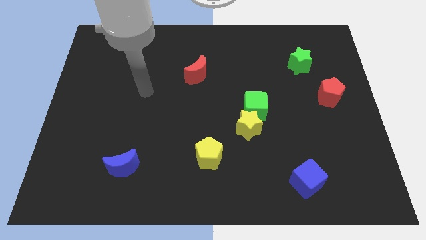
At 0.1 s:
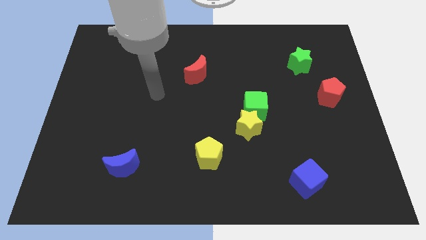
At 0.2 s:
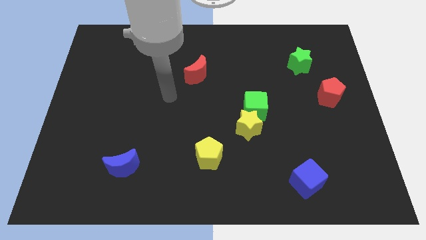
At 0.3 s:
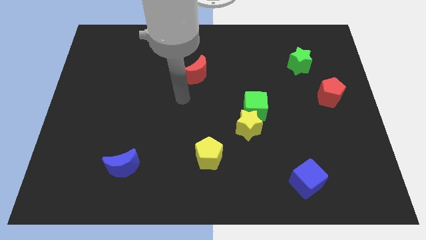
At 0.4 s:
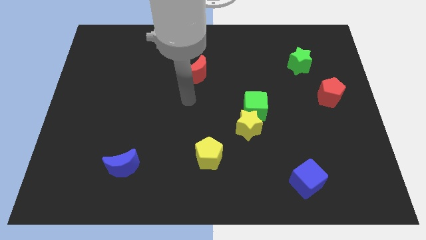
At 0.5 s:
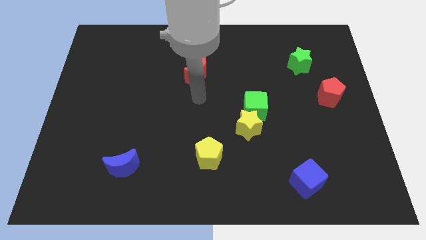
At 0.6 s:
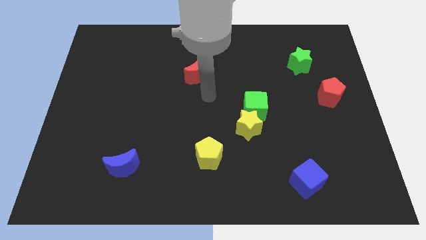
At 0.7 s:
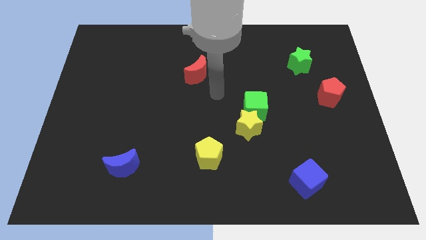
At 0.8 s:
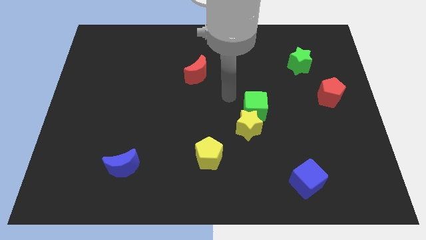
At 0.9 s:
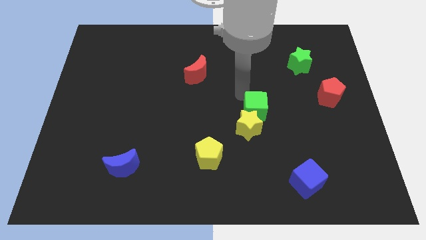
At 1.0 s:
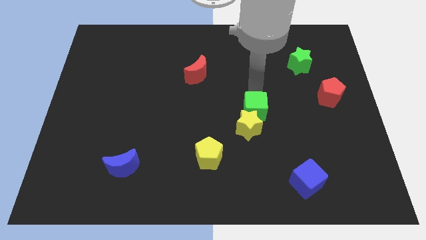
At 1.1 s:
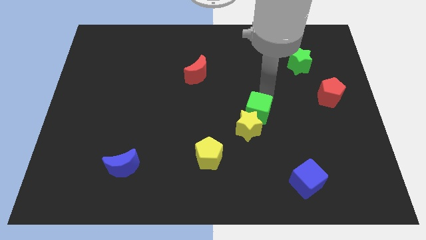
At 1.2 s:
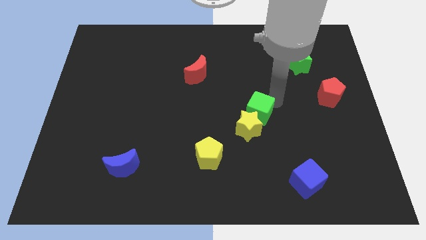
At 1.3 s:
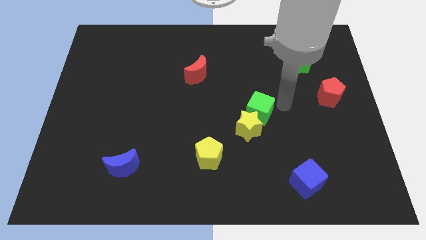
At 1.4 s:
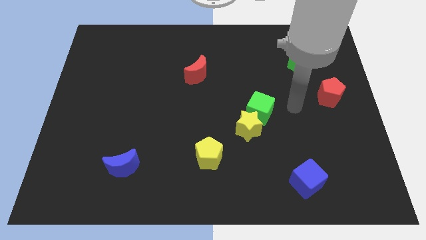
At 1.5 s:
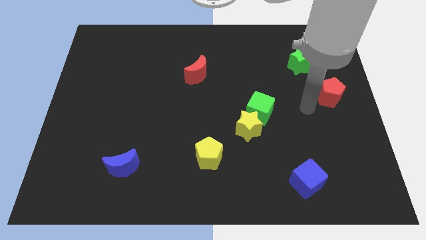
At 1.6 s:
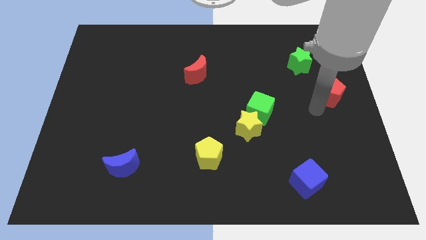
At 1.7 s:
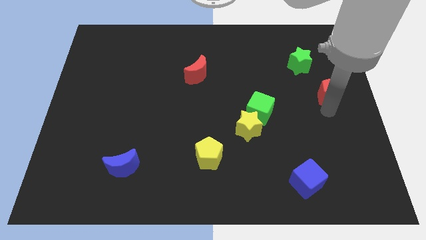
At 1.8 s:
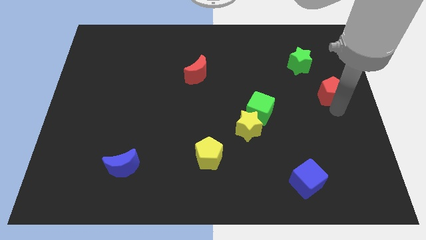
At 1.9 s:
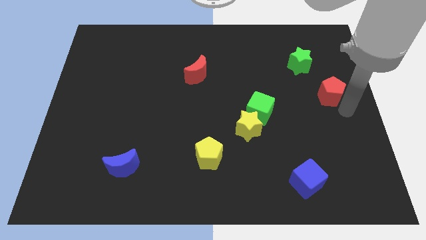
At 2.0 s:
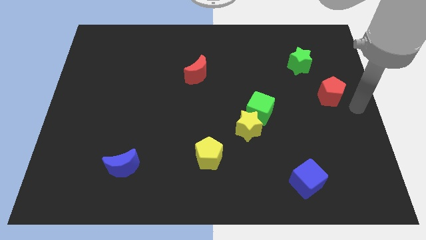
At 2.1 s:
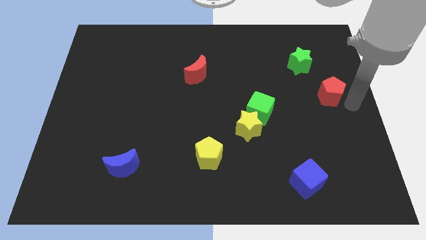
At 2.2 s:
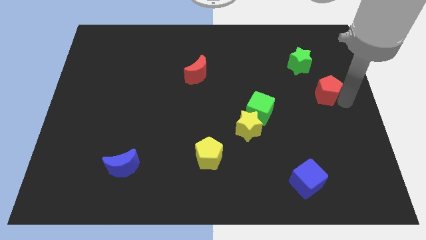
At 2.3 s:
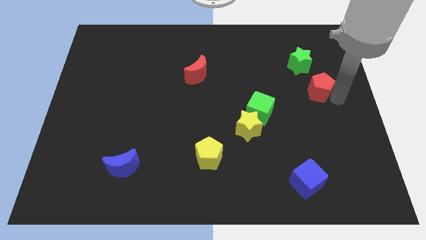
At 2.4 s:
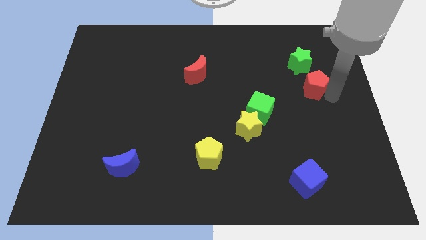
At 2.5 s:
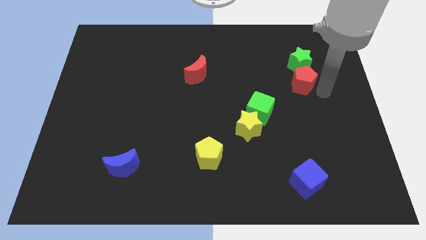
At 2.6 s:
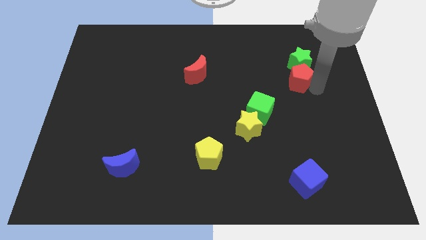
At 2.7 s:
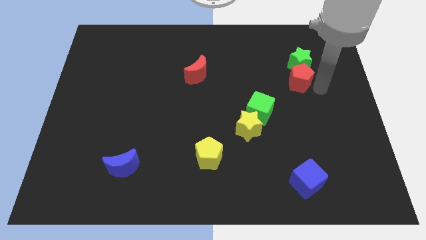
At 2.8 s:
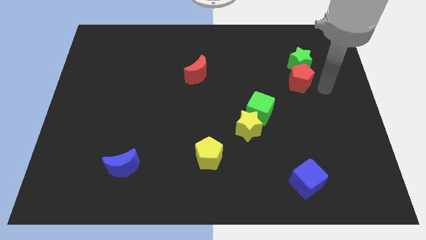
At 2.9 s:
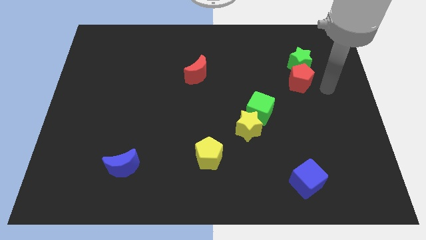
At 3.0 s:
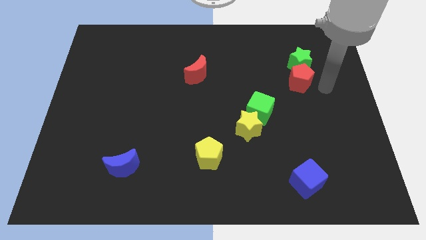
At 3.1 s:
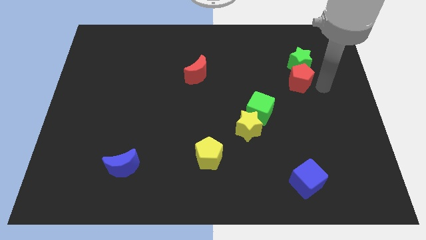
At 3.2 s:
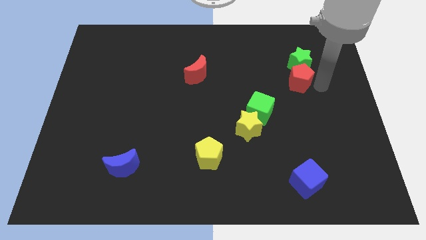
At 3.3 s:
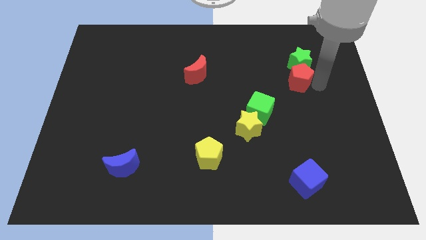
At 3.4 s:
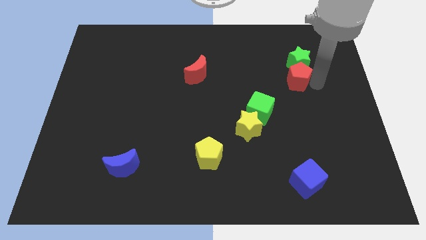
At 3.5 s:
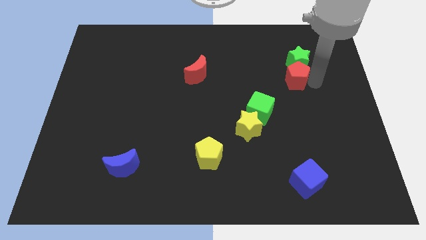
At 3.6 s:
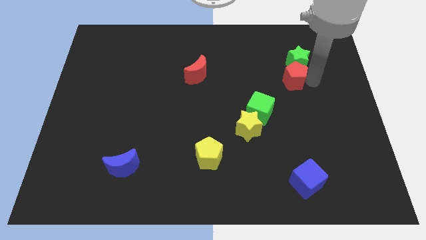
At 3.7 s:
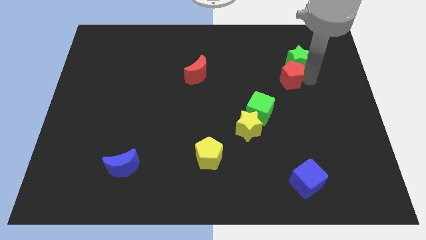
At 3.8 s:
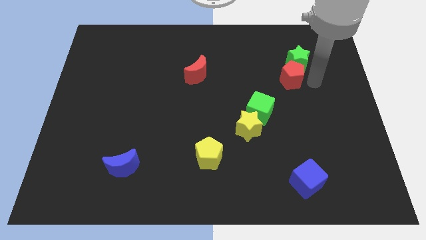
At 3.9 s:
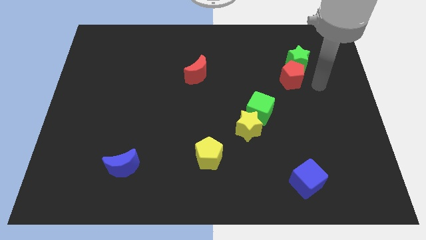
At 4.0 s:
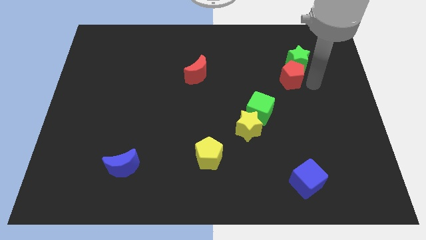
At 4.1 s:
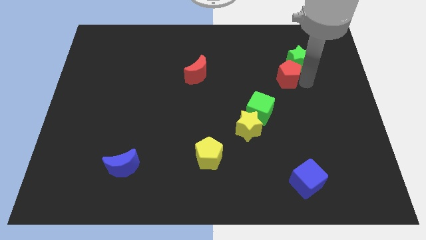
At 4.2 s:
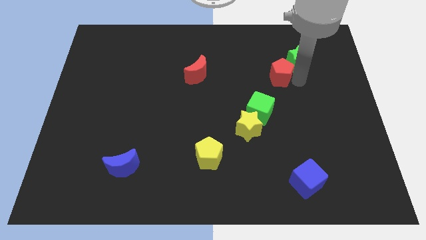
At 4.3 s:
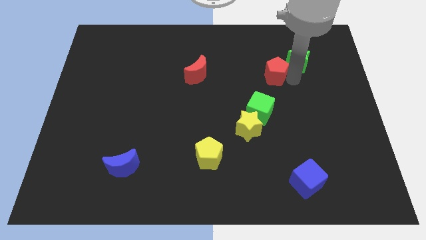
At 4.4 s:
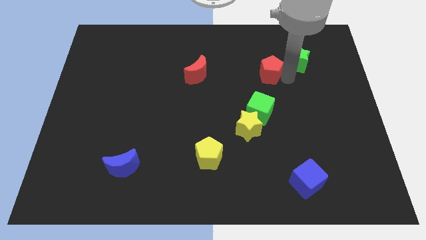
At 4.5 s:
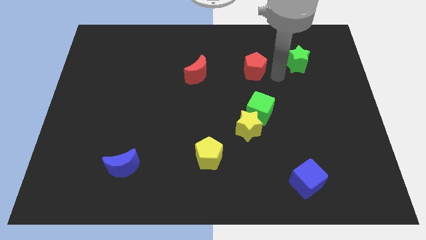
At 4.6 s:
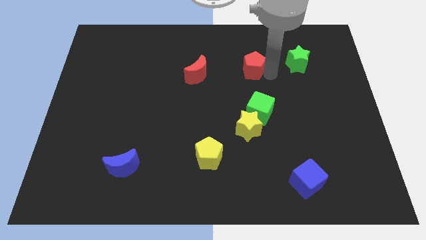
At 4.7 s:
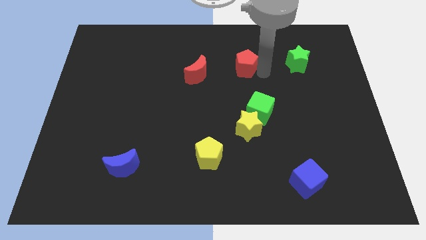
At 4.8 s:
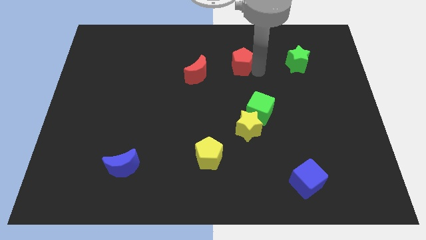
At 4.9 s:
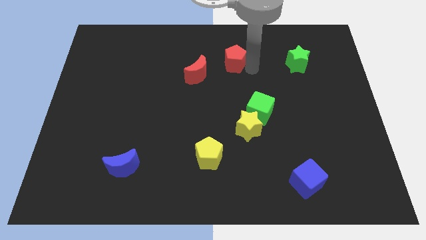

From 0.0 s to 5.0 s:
slide the red pentagon to the top right of the red moon

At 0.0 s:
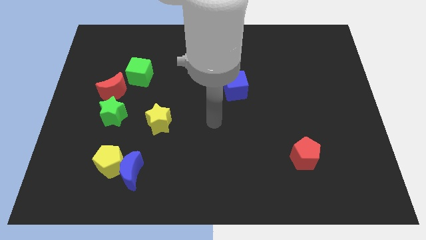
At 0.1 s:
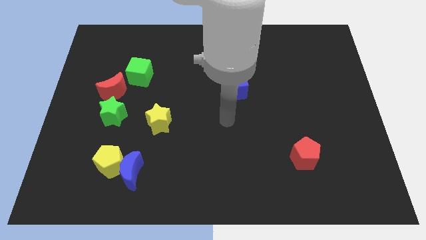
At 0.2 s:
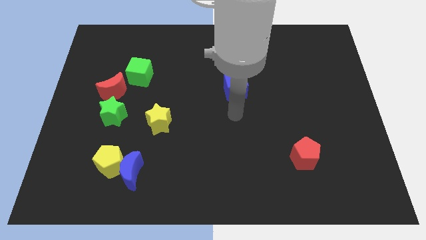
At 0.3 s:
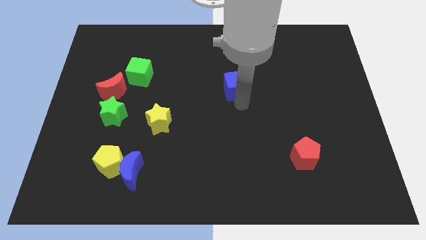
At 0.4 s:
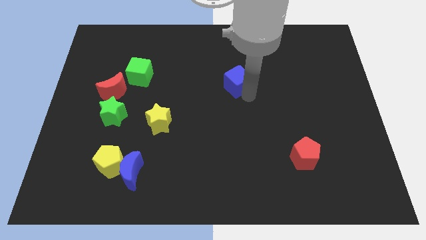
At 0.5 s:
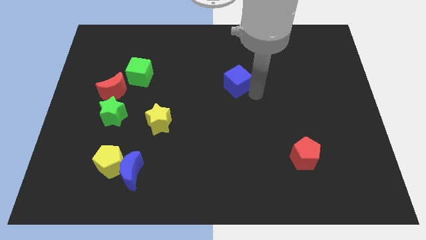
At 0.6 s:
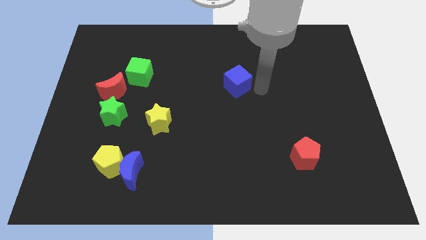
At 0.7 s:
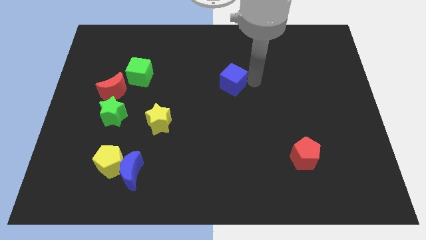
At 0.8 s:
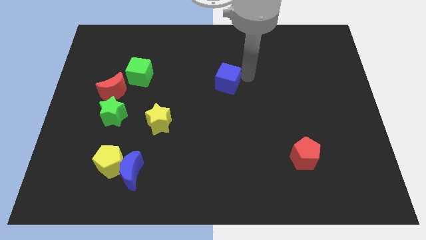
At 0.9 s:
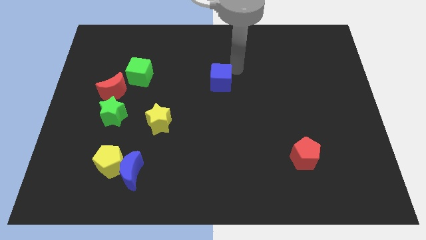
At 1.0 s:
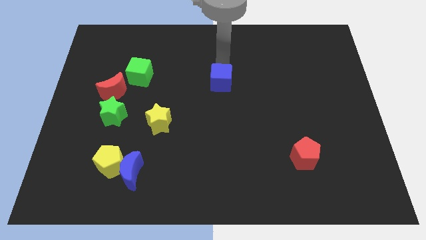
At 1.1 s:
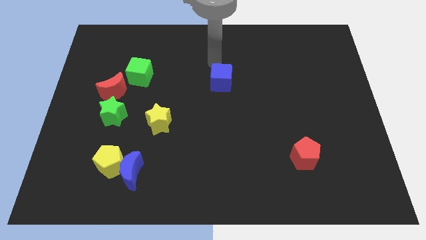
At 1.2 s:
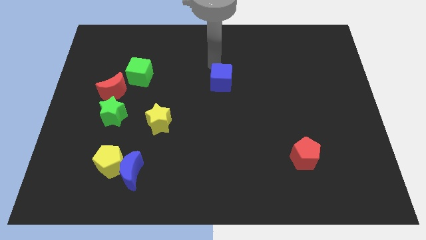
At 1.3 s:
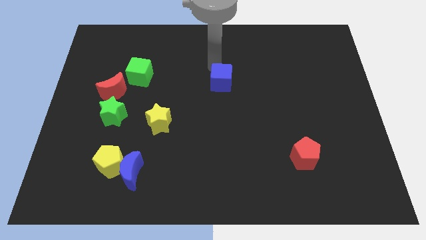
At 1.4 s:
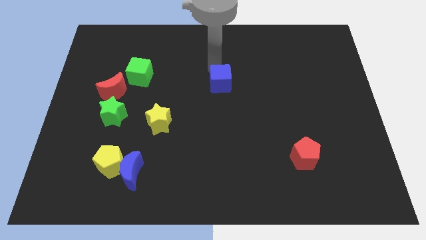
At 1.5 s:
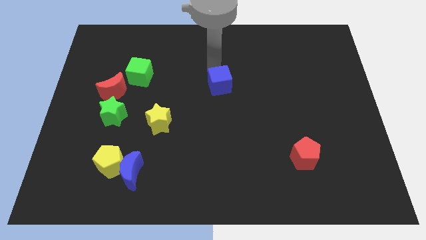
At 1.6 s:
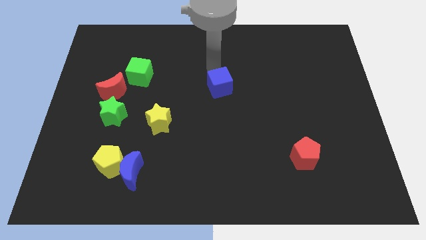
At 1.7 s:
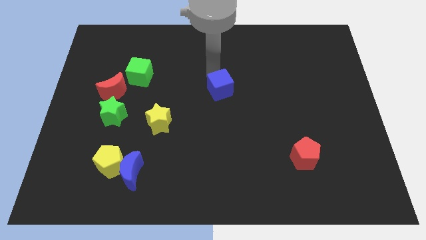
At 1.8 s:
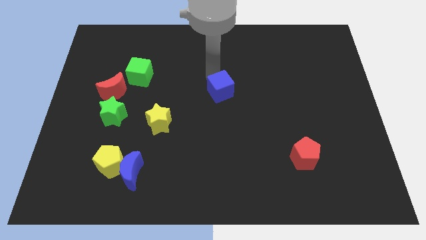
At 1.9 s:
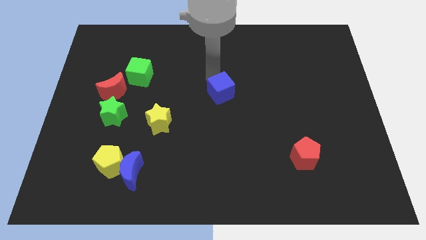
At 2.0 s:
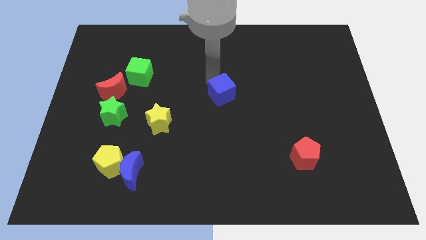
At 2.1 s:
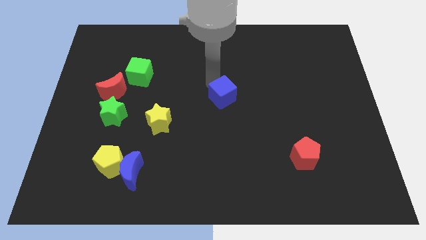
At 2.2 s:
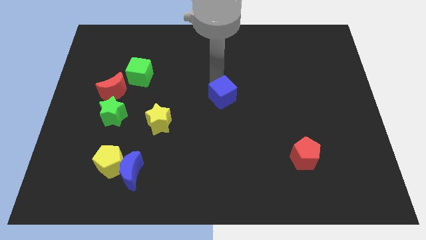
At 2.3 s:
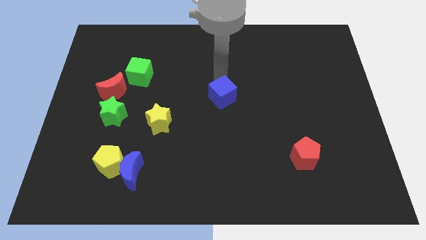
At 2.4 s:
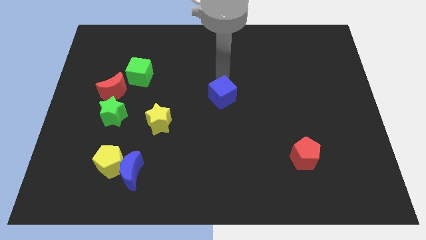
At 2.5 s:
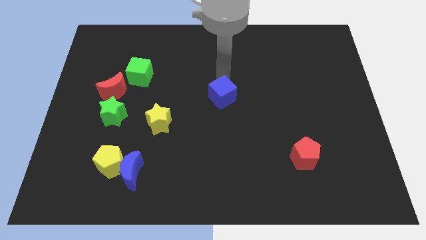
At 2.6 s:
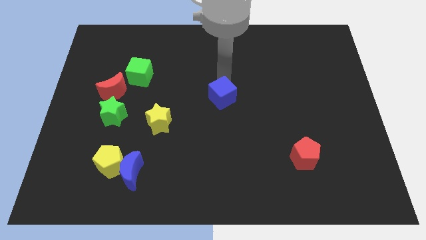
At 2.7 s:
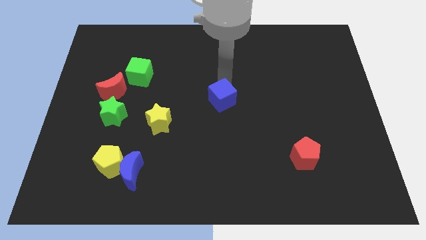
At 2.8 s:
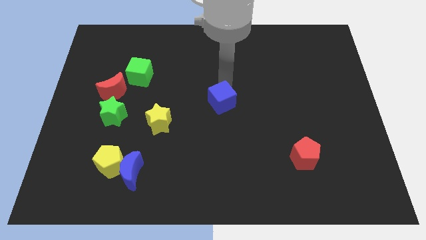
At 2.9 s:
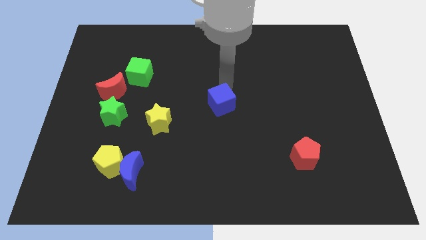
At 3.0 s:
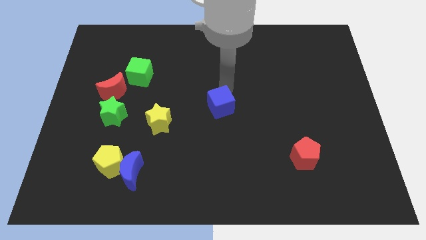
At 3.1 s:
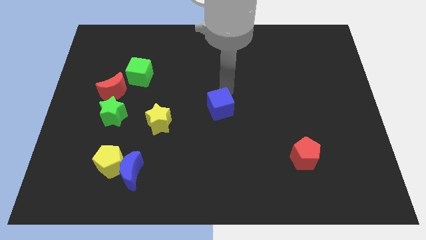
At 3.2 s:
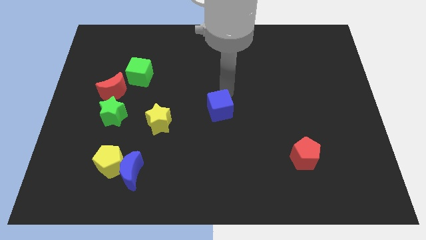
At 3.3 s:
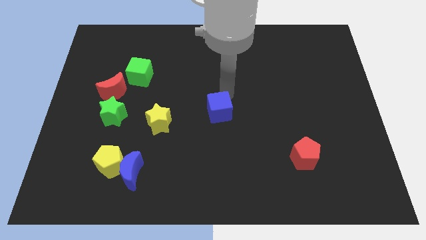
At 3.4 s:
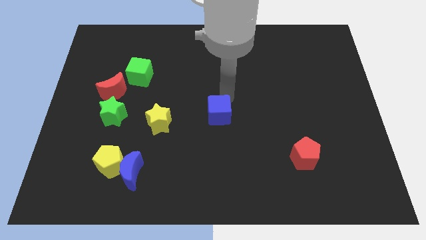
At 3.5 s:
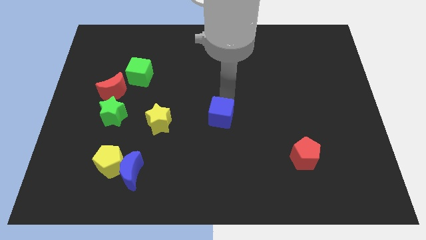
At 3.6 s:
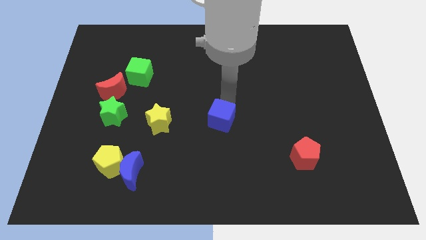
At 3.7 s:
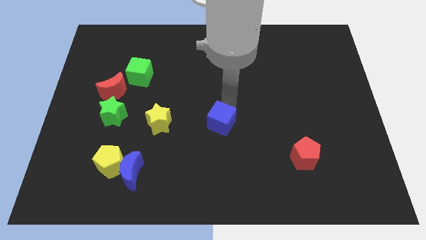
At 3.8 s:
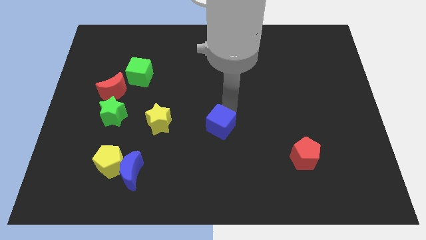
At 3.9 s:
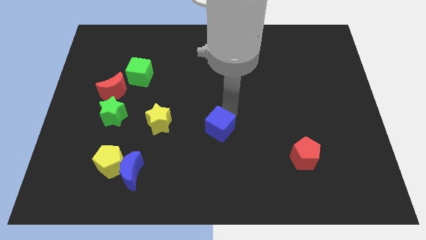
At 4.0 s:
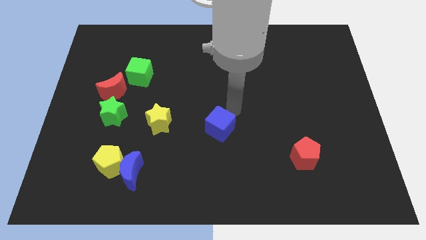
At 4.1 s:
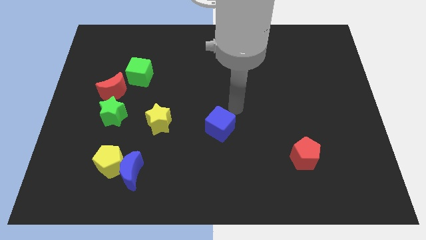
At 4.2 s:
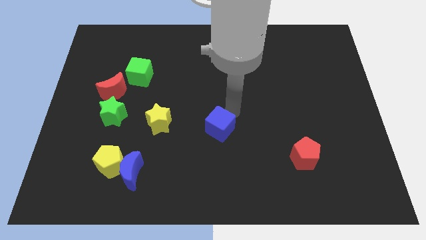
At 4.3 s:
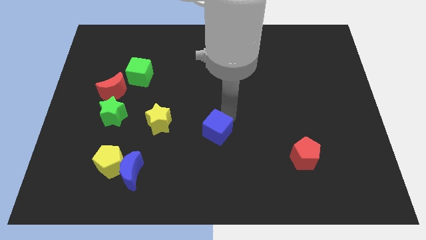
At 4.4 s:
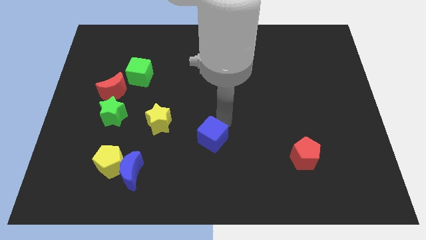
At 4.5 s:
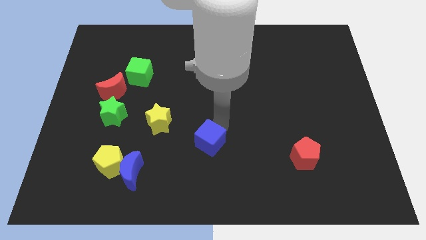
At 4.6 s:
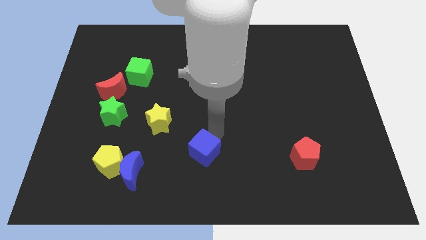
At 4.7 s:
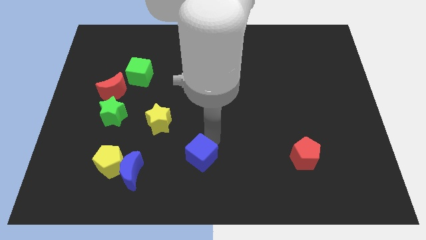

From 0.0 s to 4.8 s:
put the blue cube right of the blue moon
